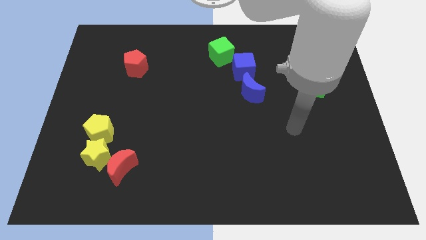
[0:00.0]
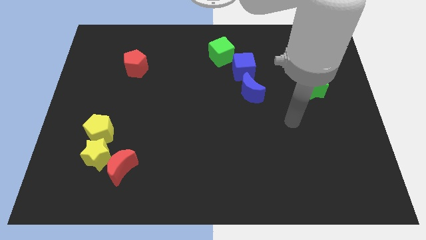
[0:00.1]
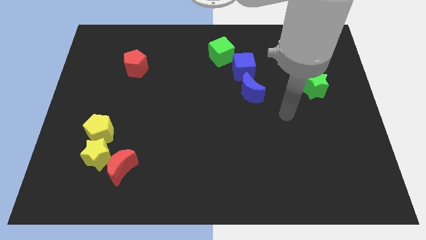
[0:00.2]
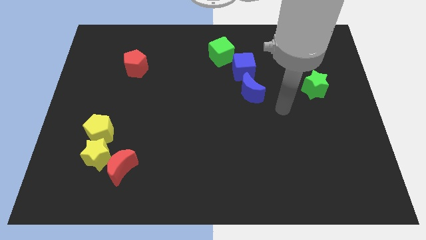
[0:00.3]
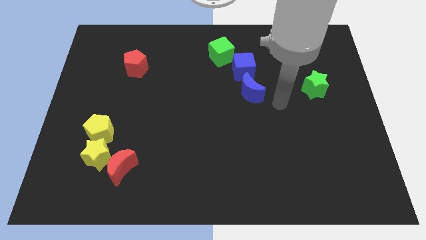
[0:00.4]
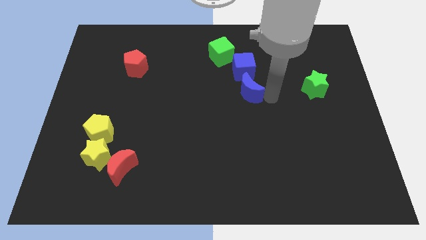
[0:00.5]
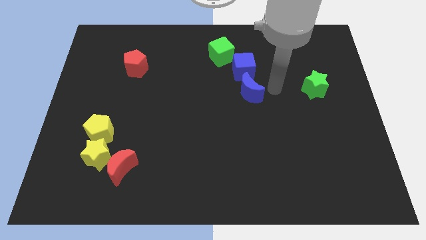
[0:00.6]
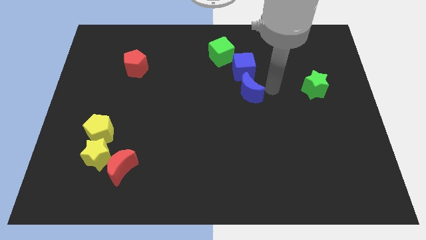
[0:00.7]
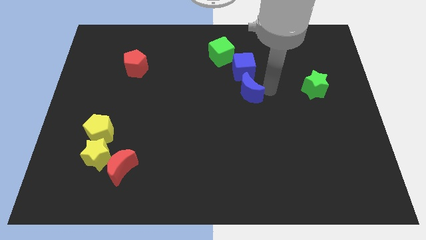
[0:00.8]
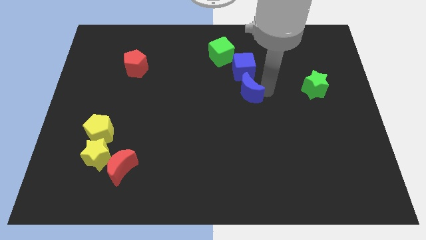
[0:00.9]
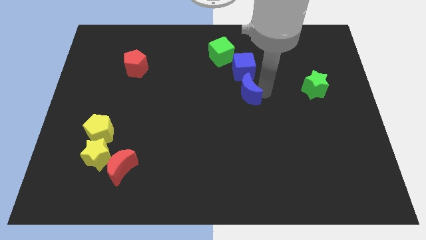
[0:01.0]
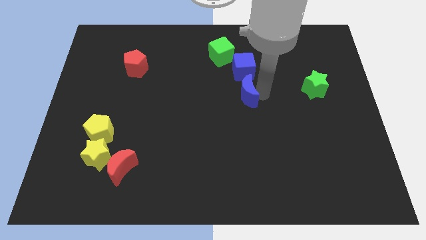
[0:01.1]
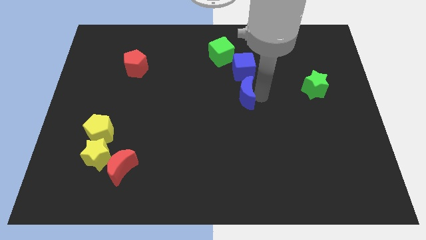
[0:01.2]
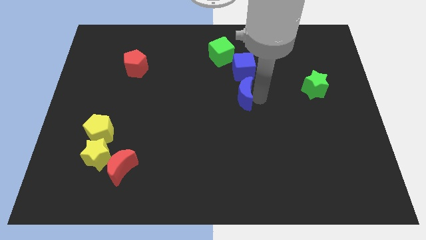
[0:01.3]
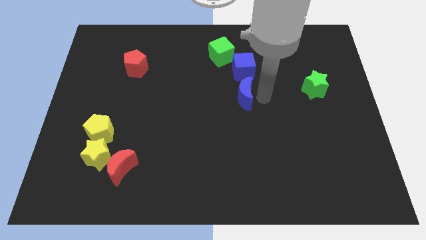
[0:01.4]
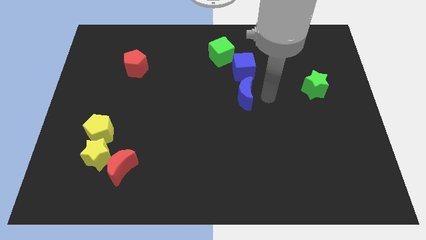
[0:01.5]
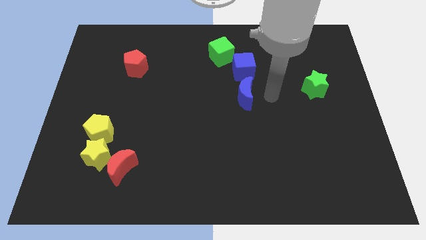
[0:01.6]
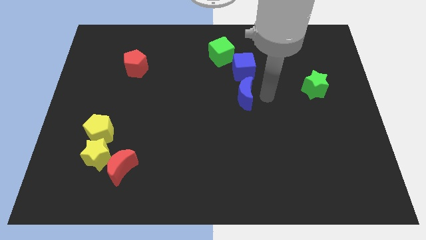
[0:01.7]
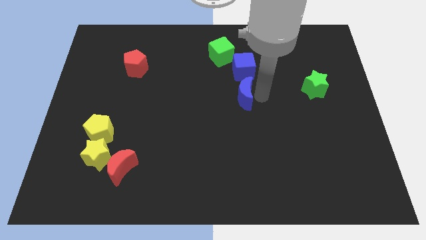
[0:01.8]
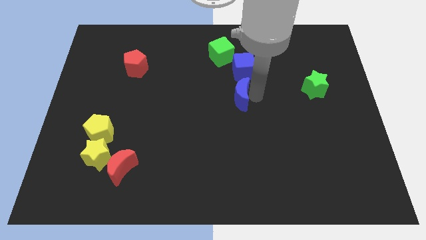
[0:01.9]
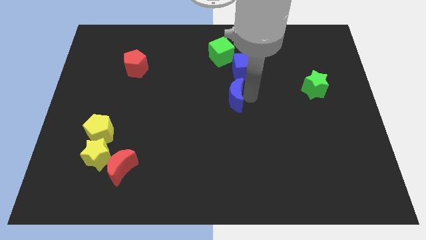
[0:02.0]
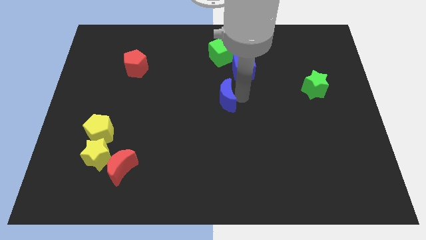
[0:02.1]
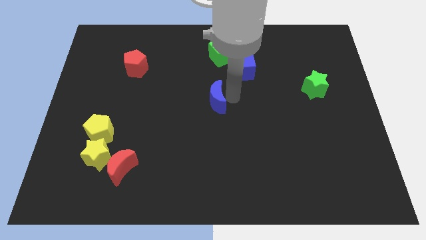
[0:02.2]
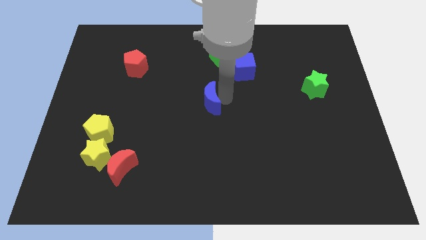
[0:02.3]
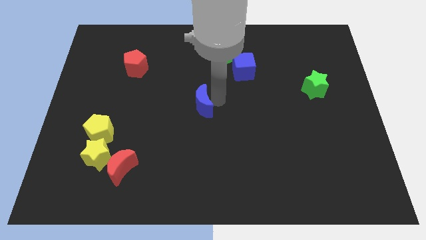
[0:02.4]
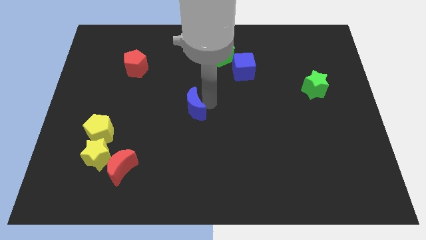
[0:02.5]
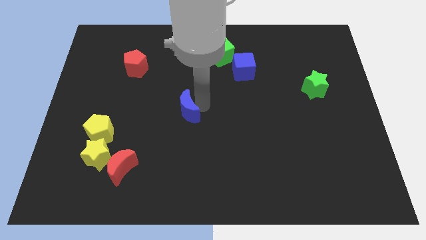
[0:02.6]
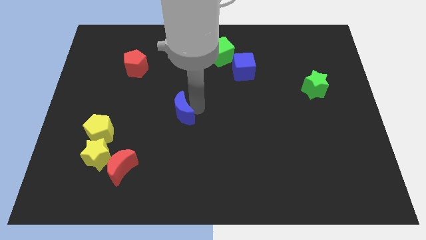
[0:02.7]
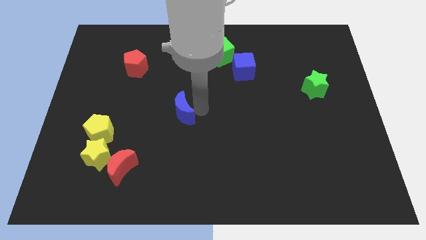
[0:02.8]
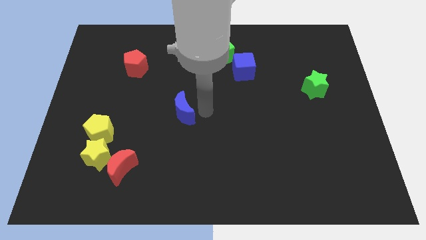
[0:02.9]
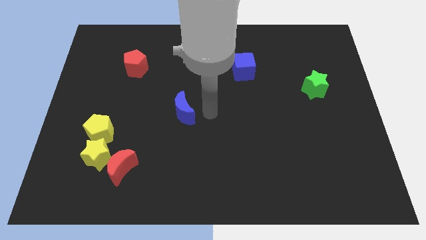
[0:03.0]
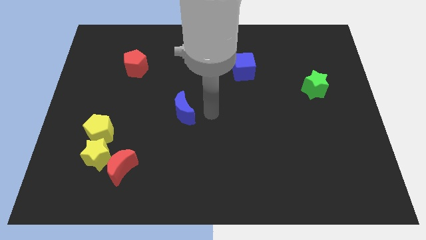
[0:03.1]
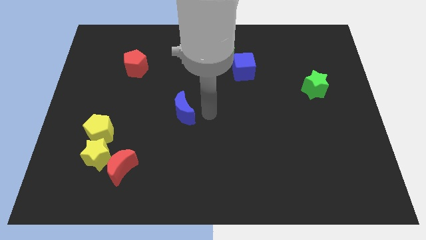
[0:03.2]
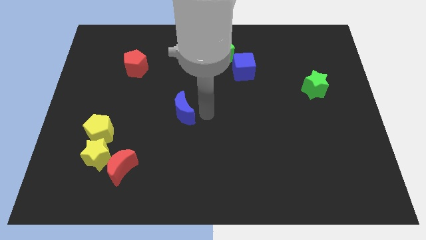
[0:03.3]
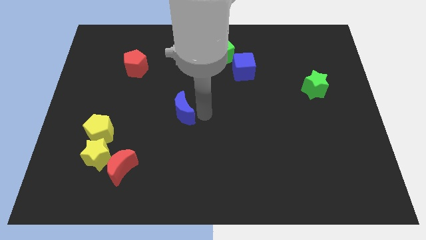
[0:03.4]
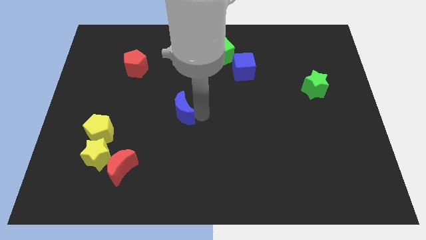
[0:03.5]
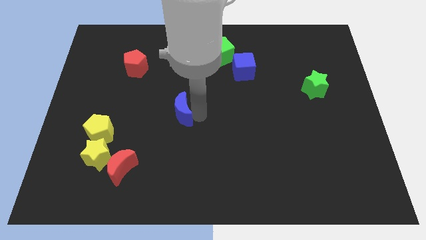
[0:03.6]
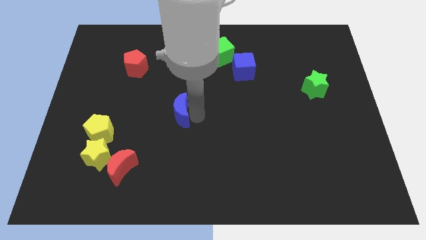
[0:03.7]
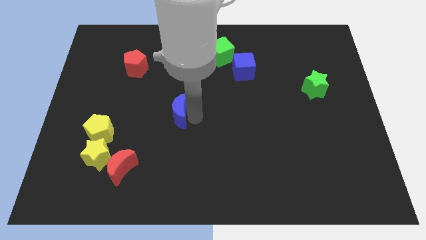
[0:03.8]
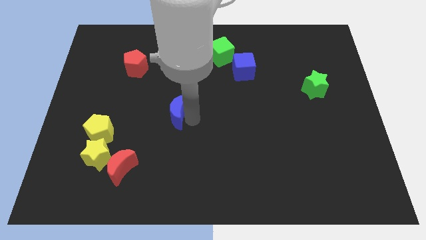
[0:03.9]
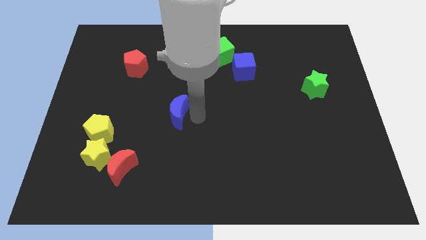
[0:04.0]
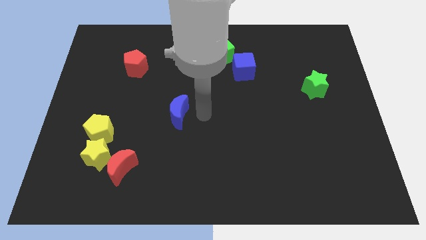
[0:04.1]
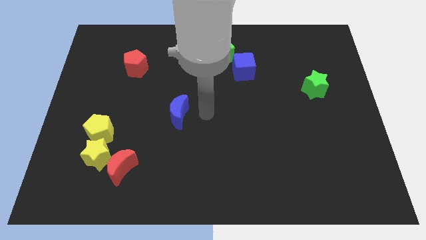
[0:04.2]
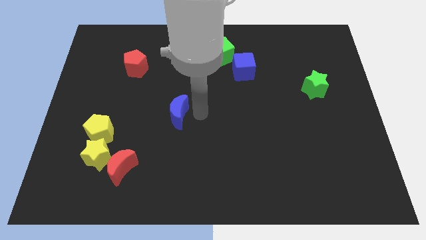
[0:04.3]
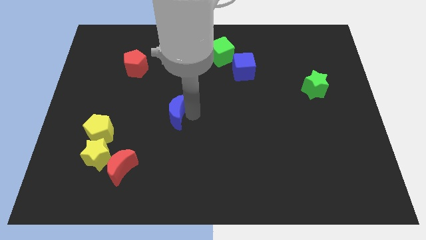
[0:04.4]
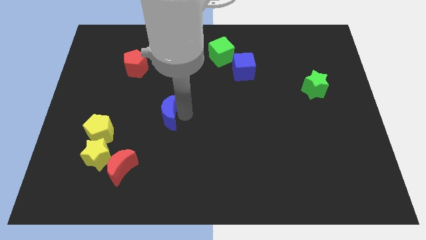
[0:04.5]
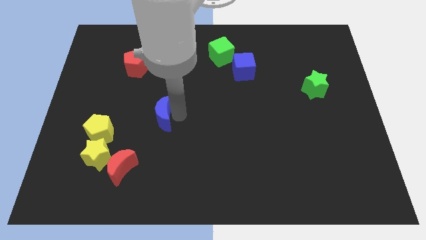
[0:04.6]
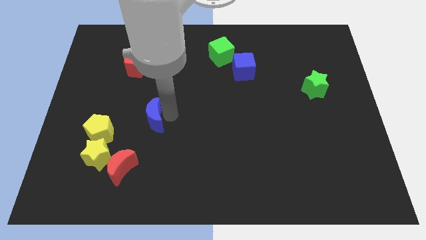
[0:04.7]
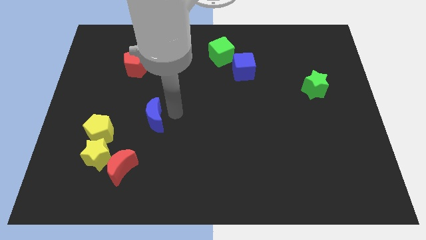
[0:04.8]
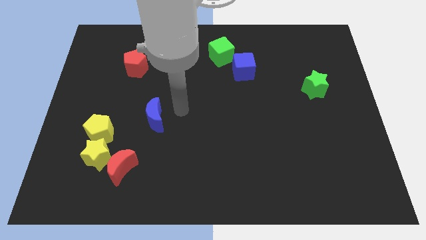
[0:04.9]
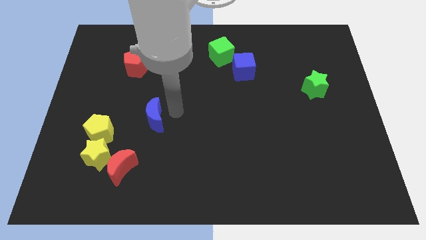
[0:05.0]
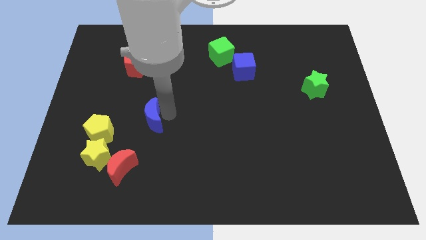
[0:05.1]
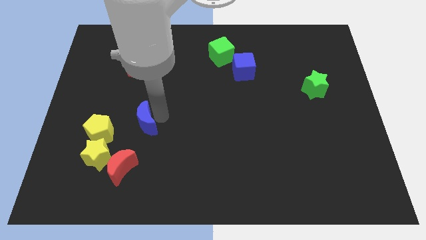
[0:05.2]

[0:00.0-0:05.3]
put the blue moon above the red moon

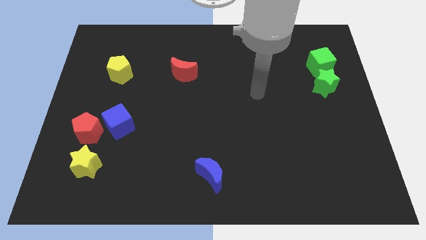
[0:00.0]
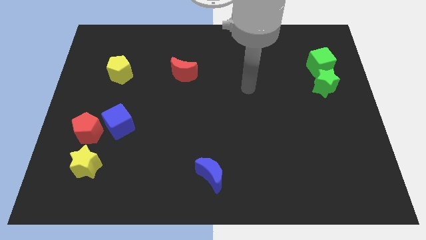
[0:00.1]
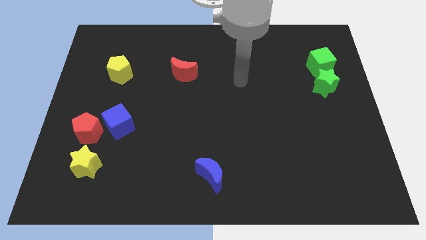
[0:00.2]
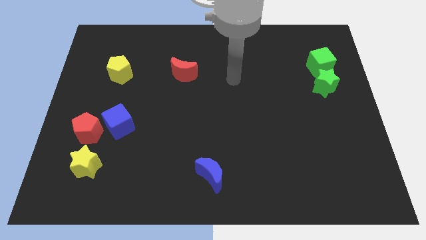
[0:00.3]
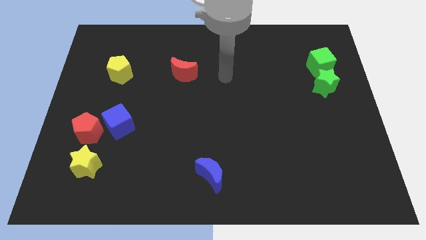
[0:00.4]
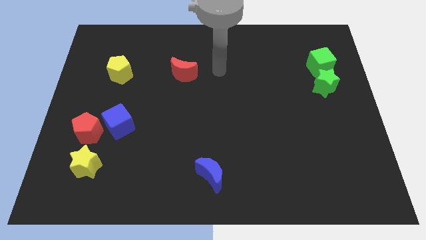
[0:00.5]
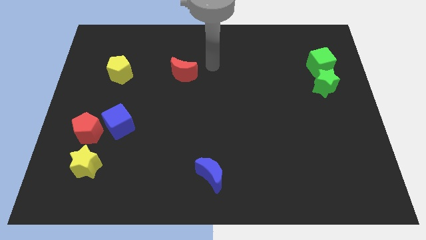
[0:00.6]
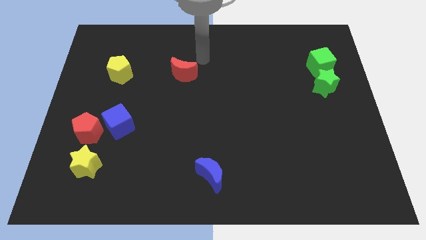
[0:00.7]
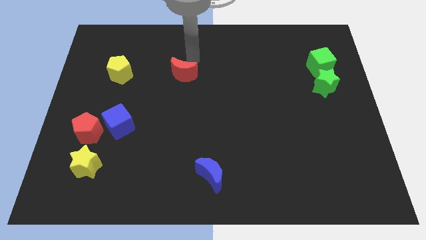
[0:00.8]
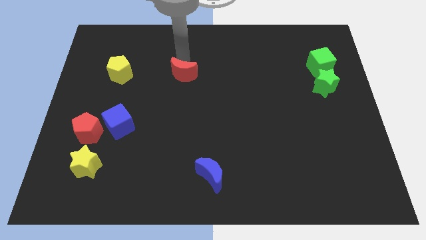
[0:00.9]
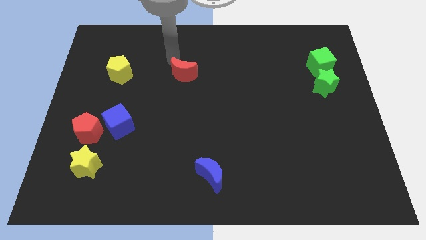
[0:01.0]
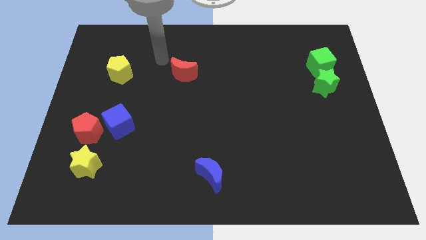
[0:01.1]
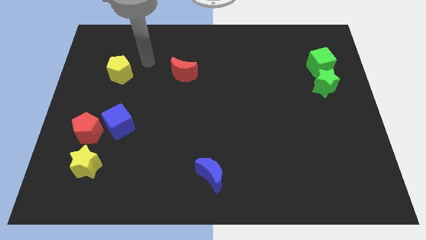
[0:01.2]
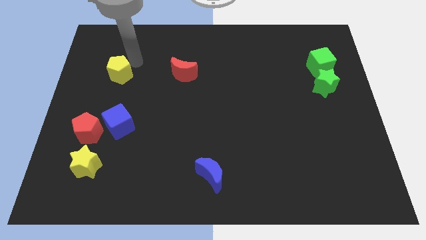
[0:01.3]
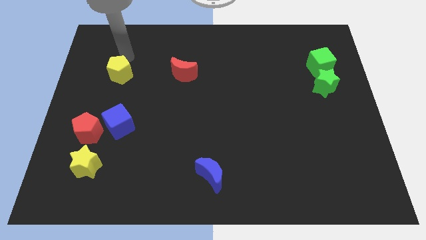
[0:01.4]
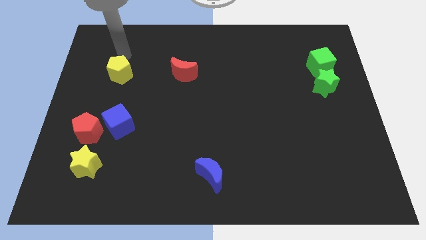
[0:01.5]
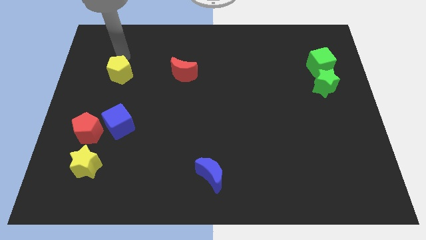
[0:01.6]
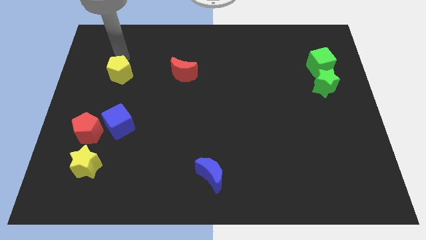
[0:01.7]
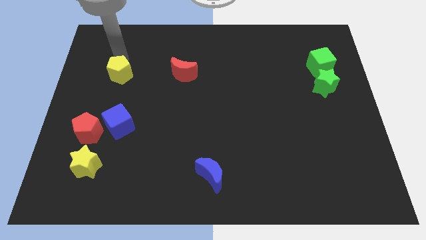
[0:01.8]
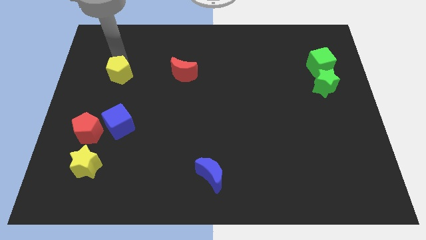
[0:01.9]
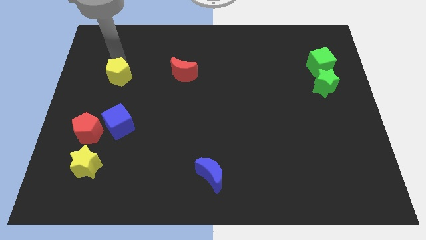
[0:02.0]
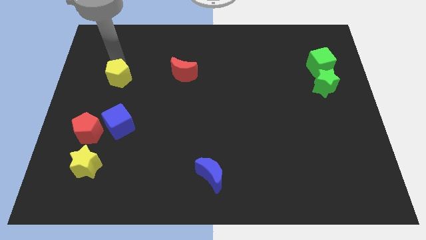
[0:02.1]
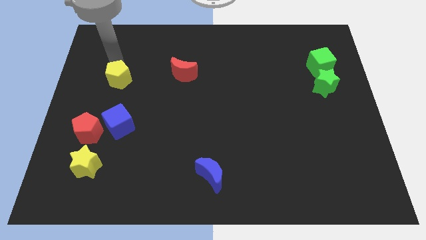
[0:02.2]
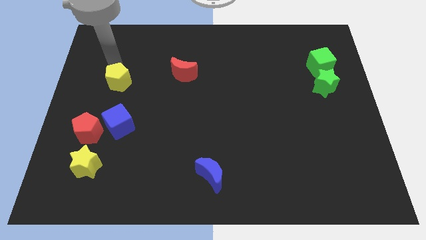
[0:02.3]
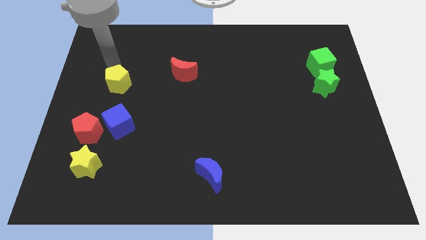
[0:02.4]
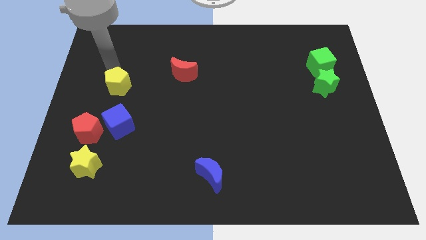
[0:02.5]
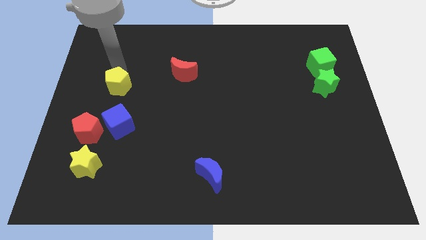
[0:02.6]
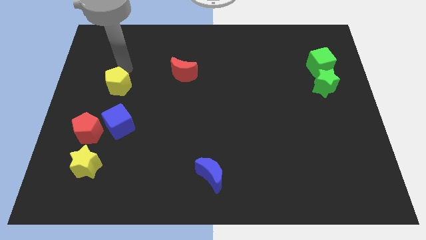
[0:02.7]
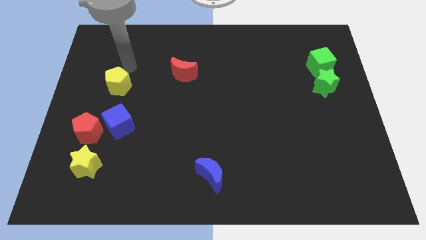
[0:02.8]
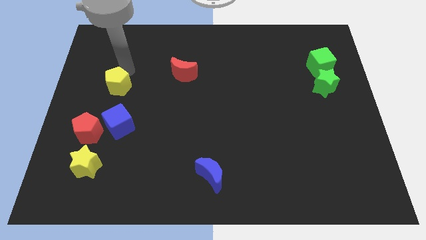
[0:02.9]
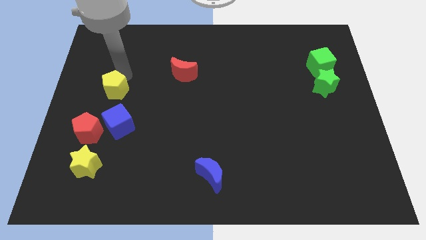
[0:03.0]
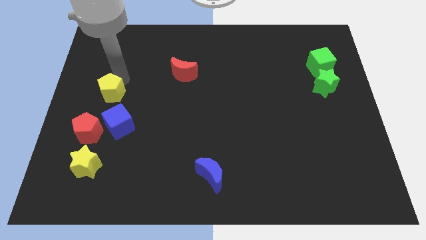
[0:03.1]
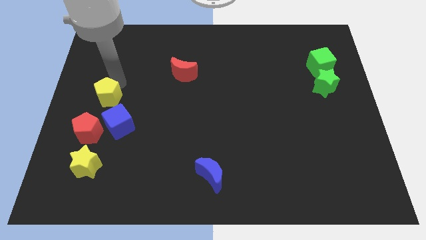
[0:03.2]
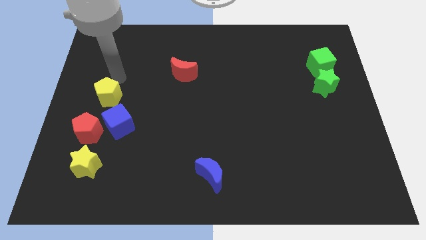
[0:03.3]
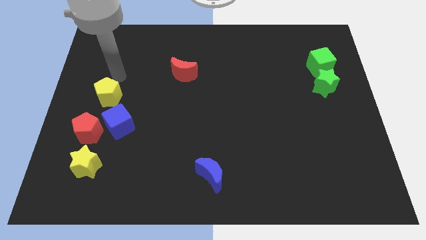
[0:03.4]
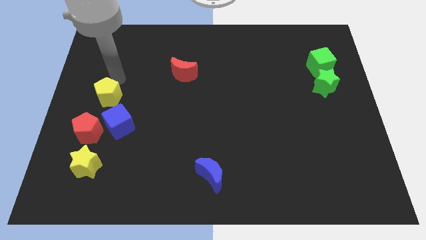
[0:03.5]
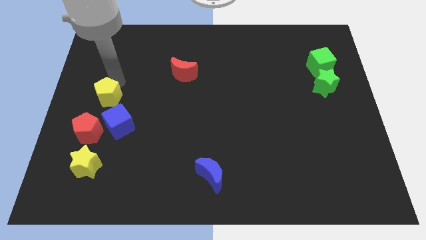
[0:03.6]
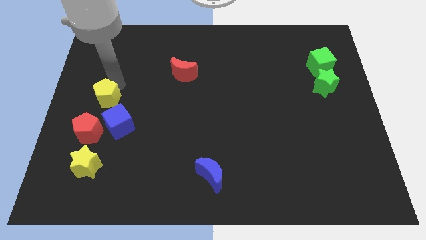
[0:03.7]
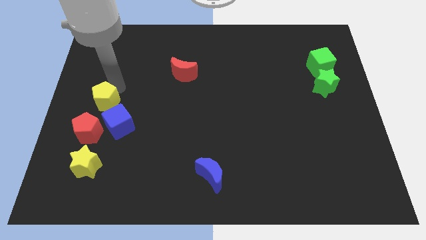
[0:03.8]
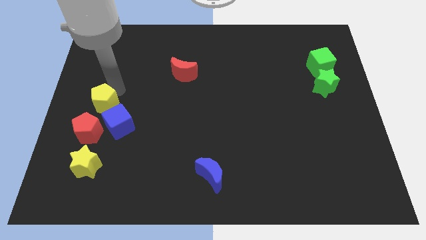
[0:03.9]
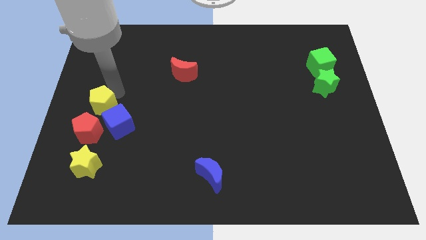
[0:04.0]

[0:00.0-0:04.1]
put the yellow pentagon to the top of the yellow star
